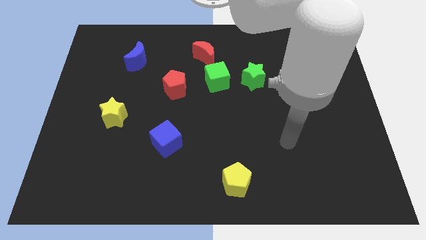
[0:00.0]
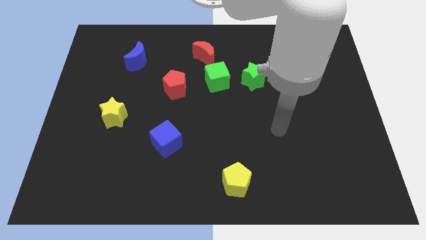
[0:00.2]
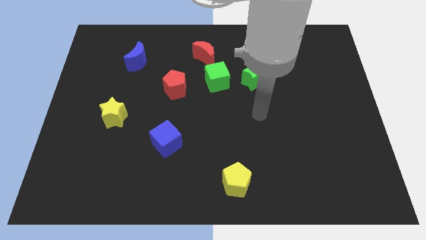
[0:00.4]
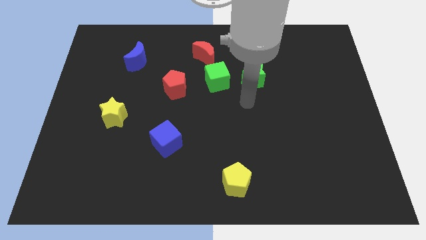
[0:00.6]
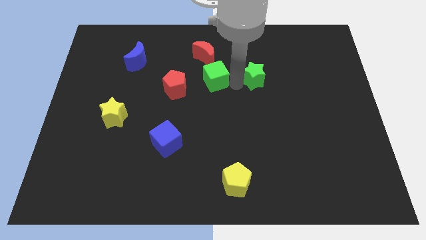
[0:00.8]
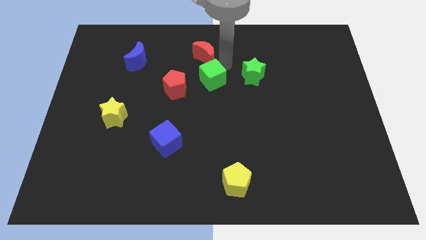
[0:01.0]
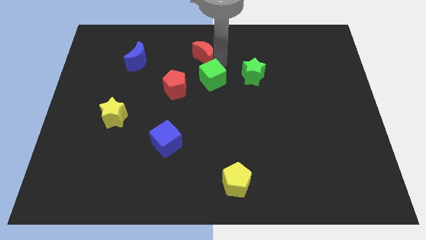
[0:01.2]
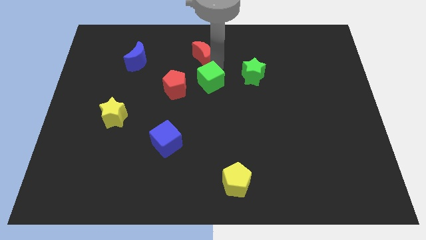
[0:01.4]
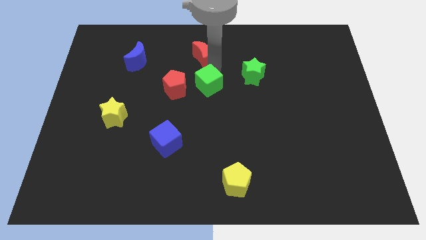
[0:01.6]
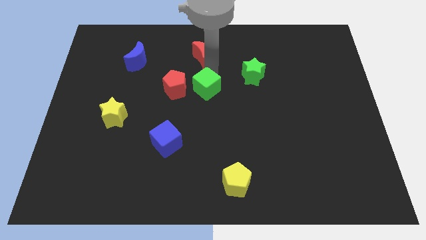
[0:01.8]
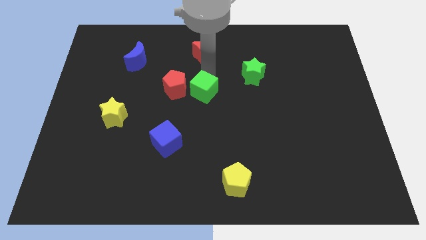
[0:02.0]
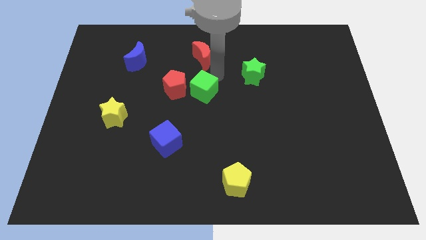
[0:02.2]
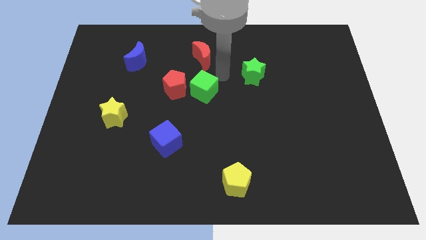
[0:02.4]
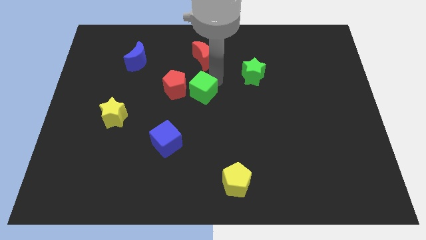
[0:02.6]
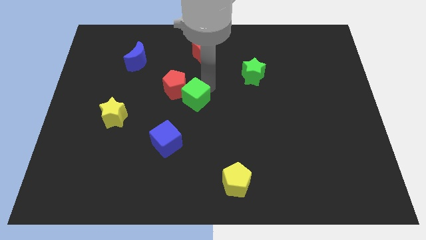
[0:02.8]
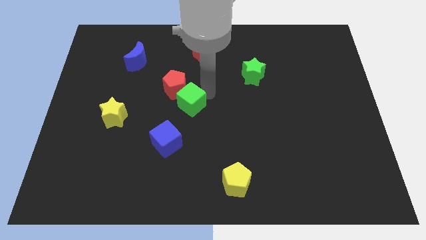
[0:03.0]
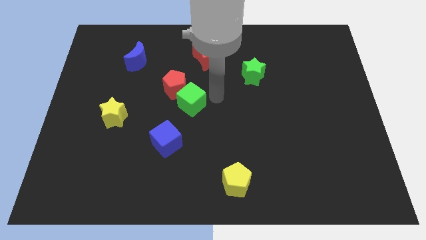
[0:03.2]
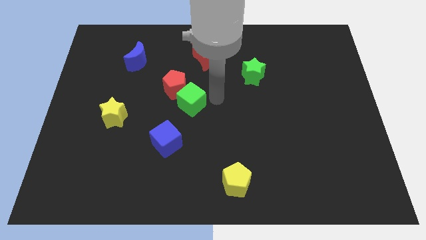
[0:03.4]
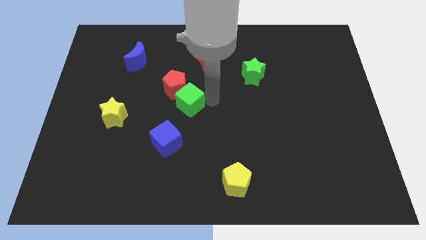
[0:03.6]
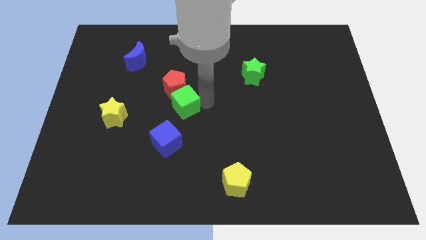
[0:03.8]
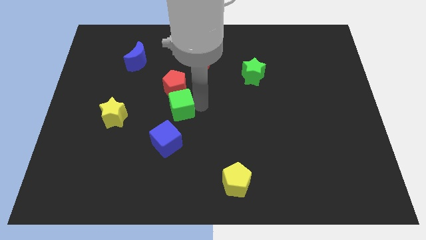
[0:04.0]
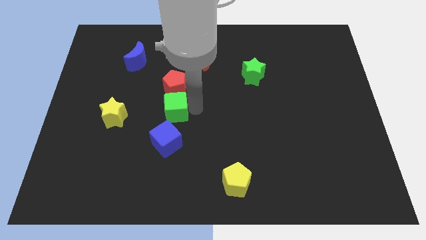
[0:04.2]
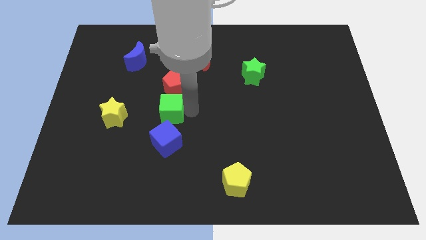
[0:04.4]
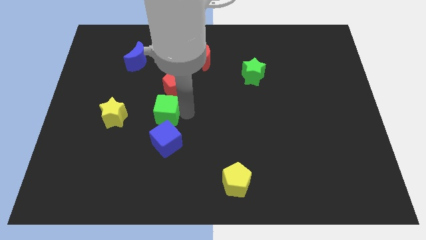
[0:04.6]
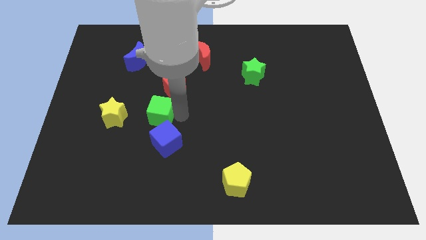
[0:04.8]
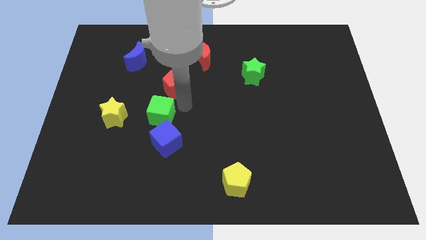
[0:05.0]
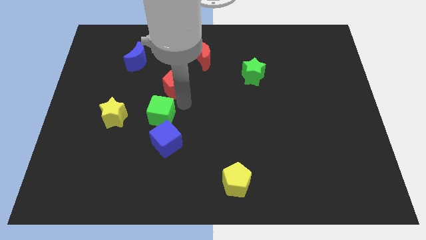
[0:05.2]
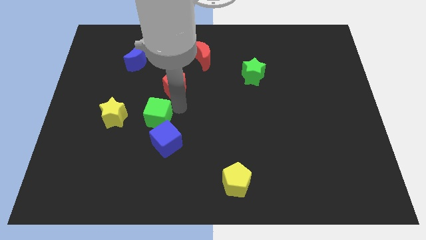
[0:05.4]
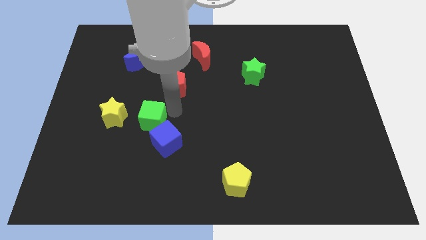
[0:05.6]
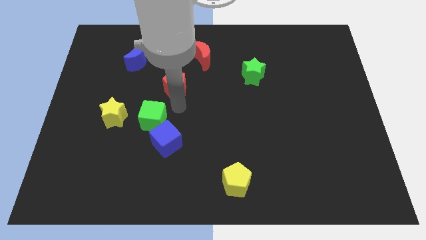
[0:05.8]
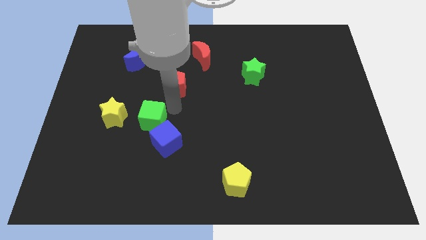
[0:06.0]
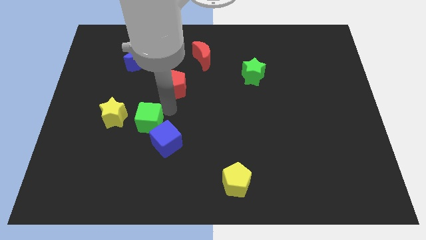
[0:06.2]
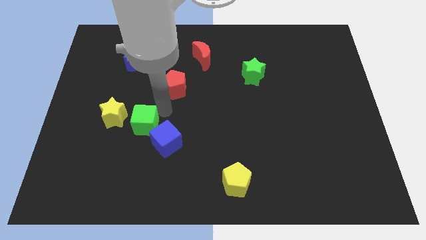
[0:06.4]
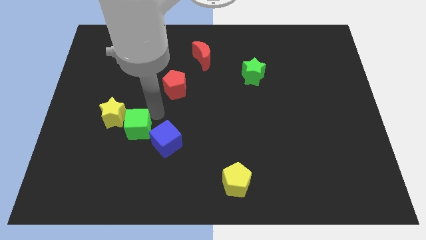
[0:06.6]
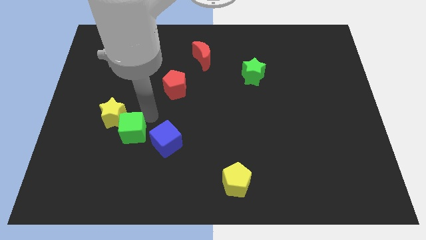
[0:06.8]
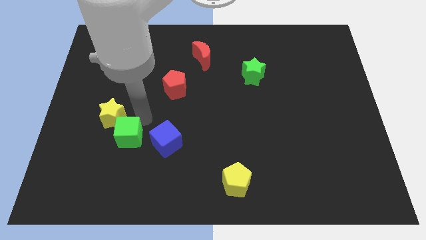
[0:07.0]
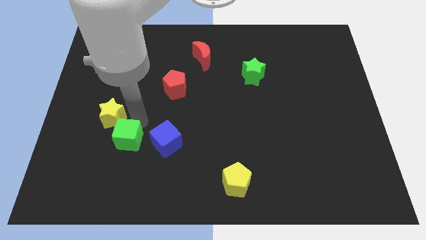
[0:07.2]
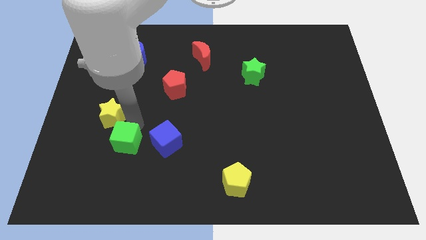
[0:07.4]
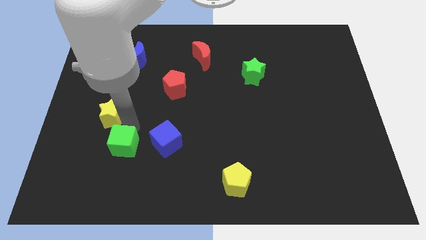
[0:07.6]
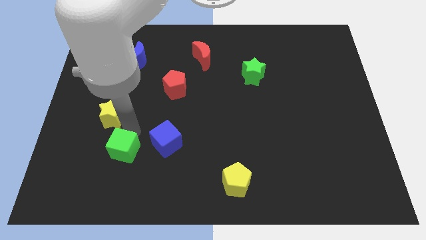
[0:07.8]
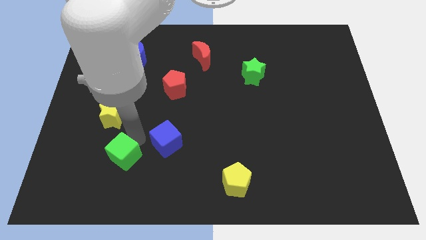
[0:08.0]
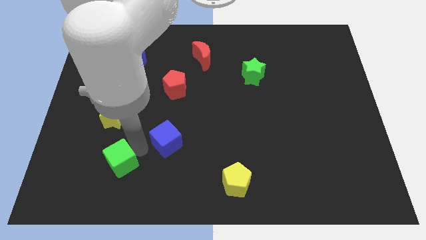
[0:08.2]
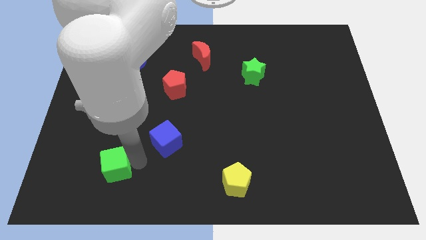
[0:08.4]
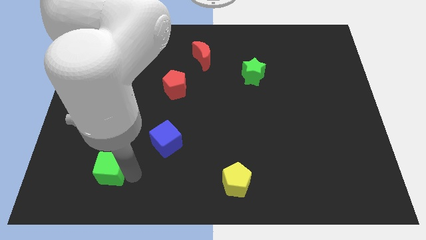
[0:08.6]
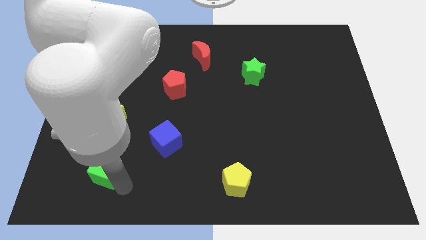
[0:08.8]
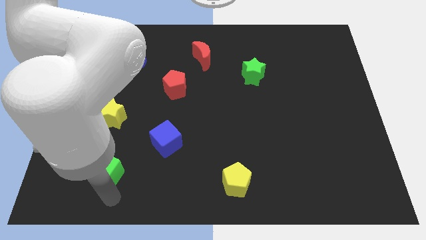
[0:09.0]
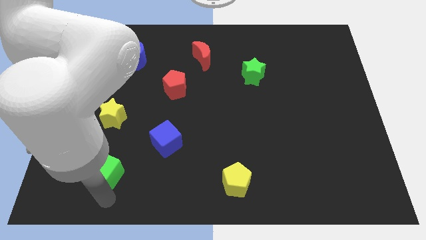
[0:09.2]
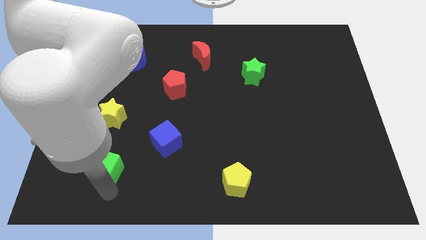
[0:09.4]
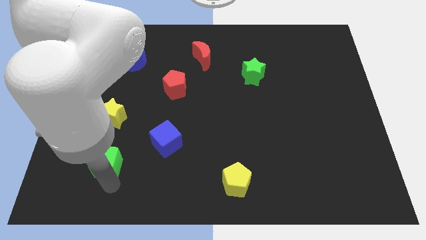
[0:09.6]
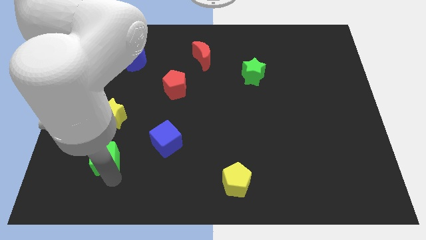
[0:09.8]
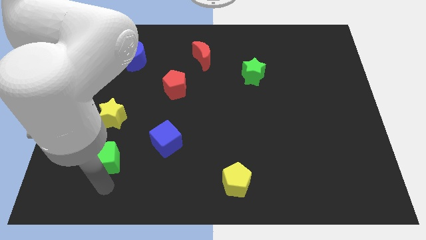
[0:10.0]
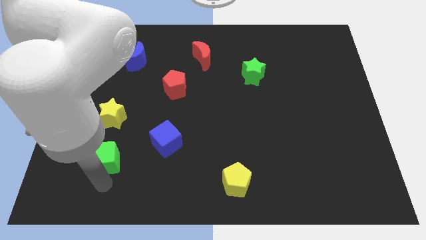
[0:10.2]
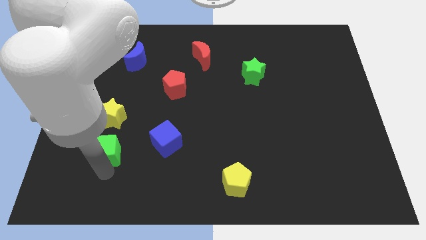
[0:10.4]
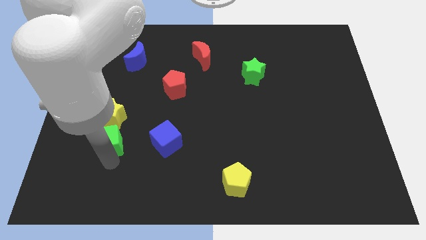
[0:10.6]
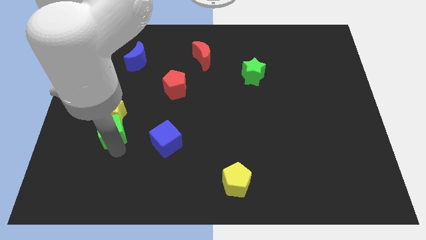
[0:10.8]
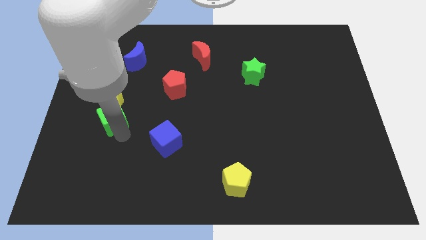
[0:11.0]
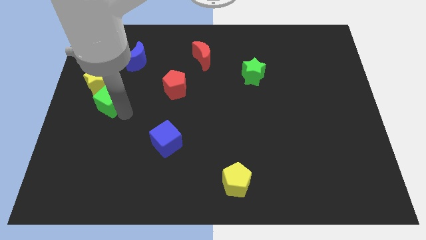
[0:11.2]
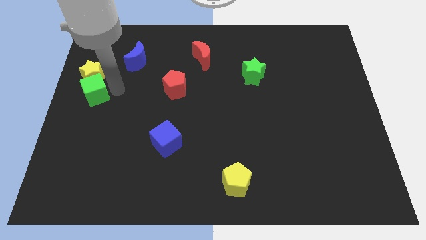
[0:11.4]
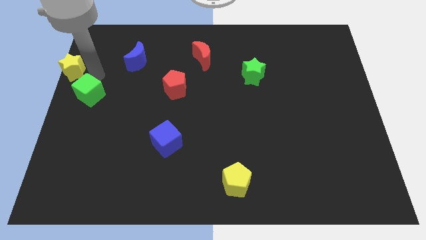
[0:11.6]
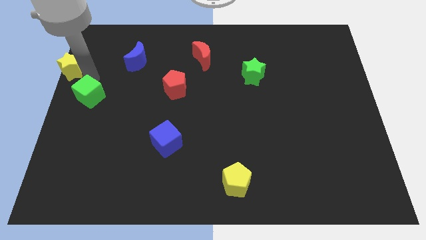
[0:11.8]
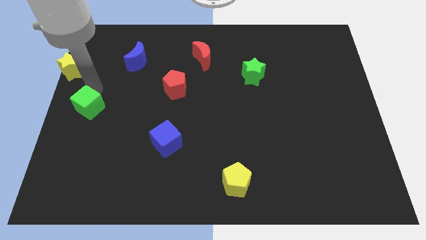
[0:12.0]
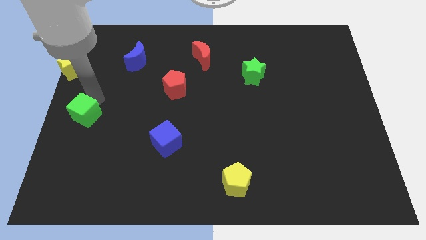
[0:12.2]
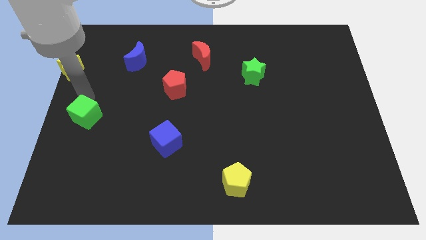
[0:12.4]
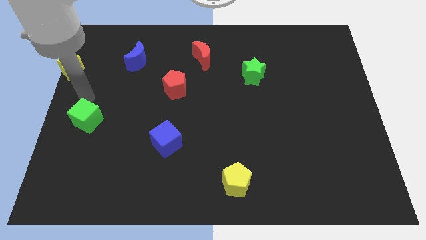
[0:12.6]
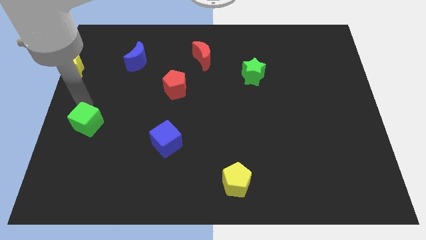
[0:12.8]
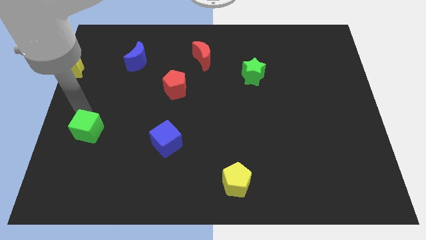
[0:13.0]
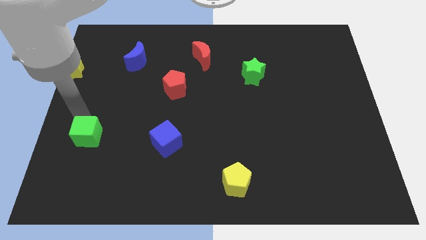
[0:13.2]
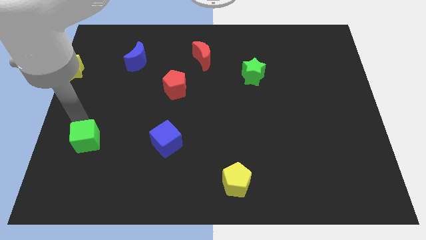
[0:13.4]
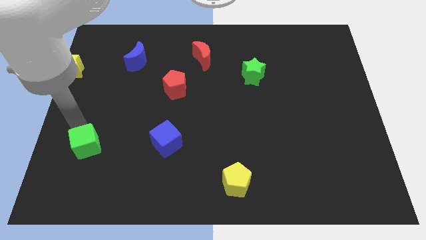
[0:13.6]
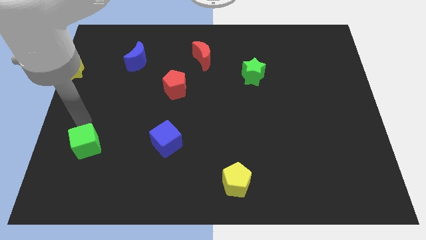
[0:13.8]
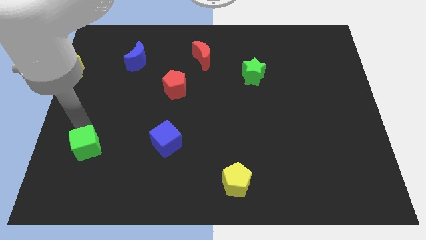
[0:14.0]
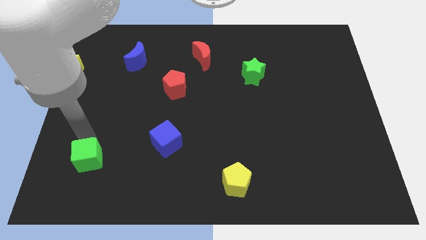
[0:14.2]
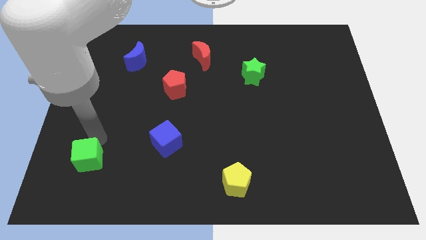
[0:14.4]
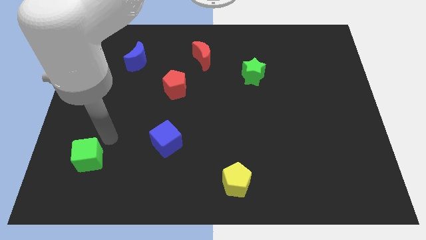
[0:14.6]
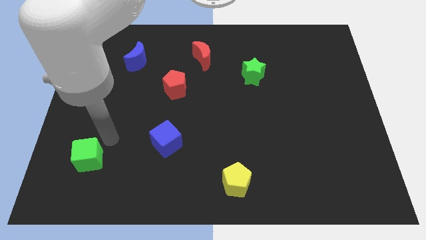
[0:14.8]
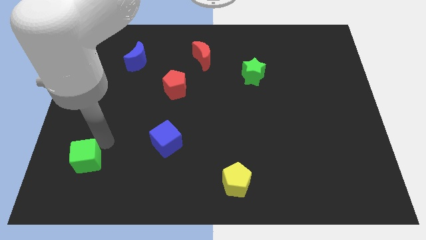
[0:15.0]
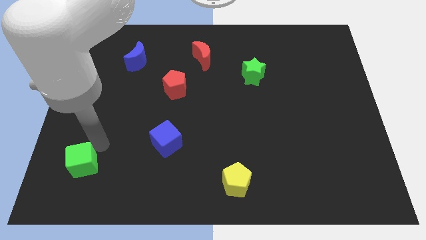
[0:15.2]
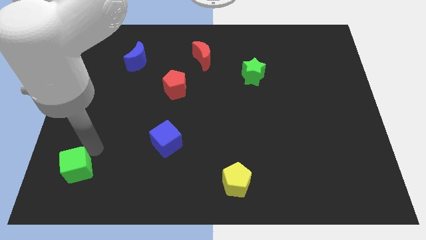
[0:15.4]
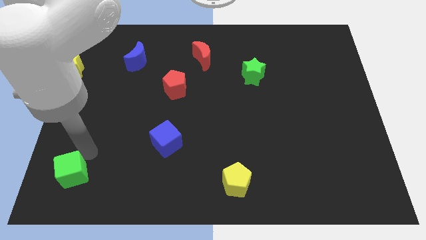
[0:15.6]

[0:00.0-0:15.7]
push the green cube to the lower left corner
